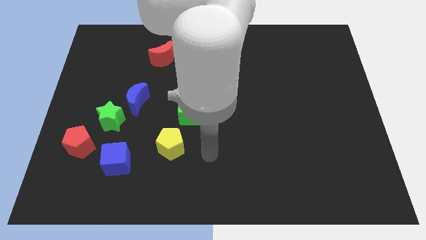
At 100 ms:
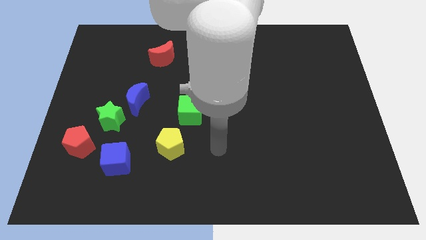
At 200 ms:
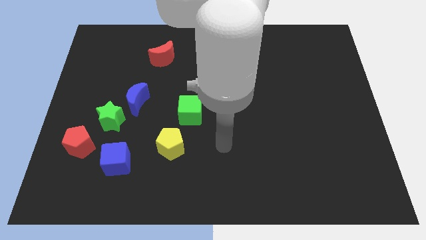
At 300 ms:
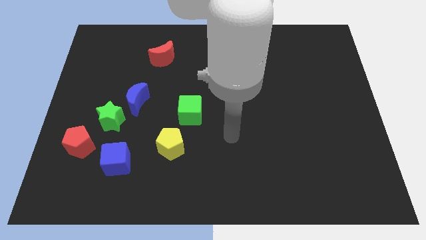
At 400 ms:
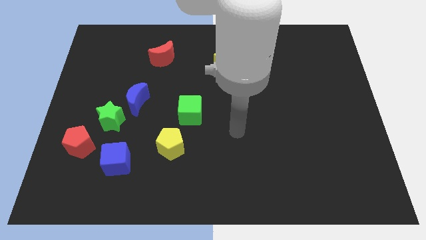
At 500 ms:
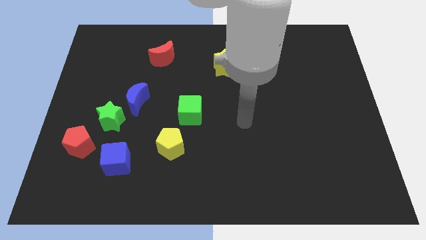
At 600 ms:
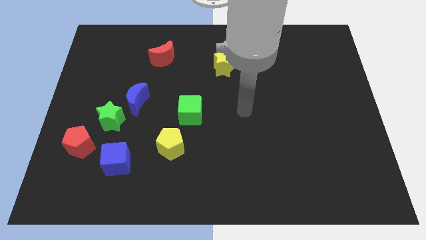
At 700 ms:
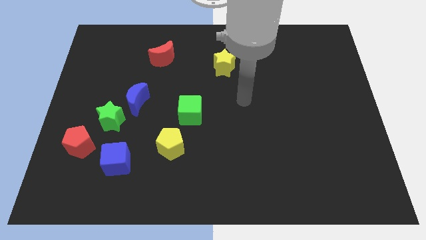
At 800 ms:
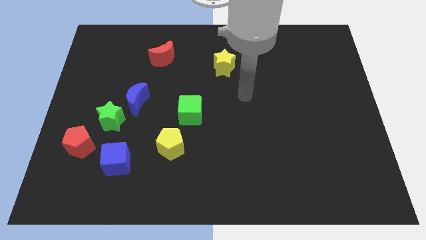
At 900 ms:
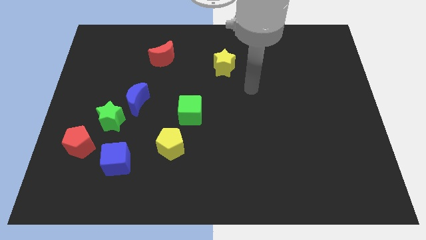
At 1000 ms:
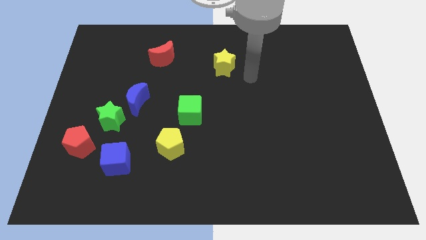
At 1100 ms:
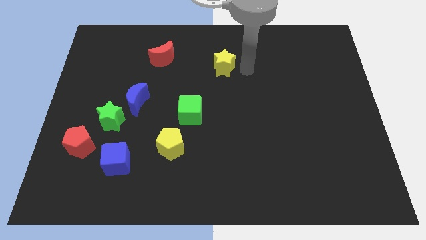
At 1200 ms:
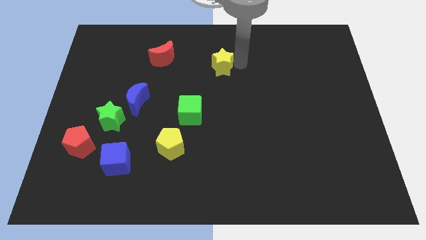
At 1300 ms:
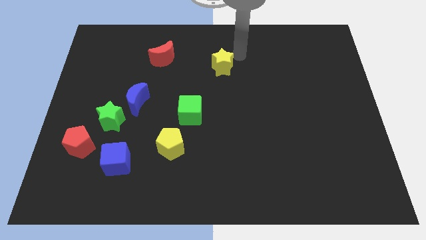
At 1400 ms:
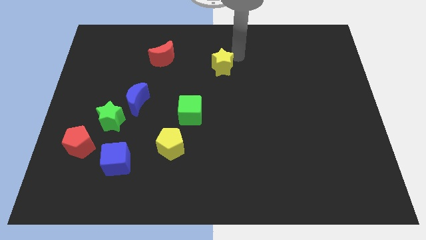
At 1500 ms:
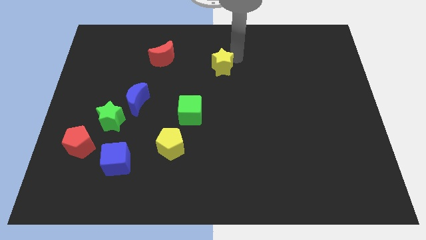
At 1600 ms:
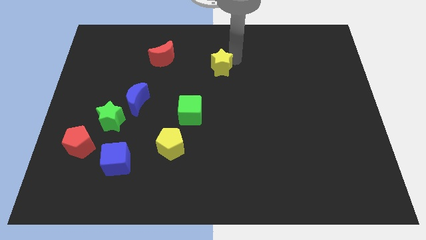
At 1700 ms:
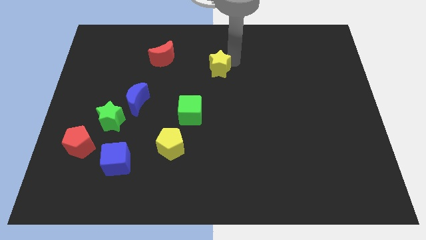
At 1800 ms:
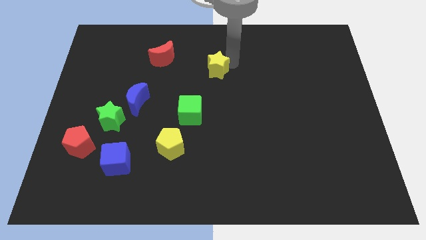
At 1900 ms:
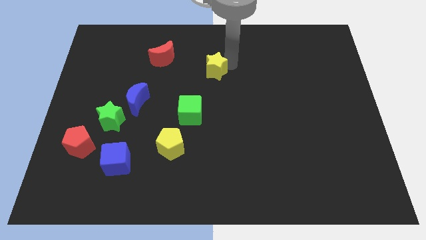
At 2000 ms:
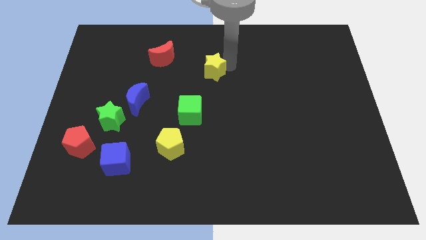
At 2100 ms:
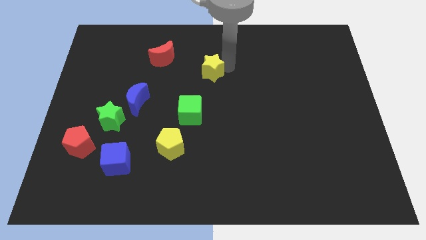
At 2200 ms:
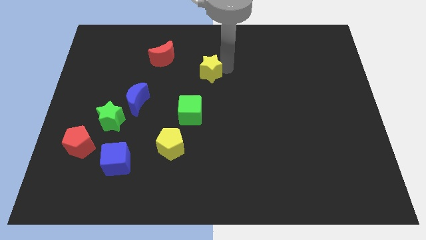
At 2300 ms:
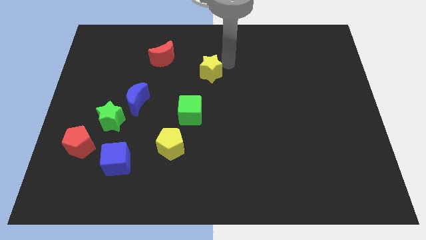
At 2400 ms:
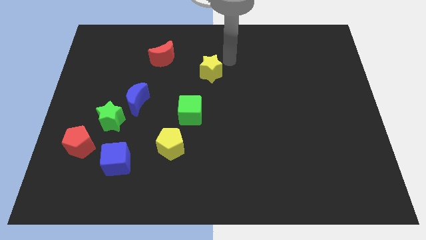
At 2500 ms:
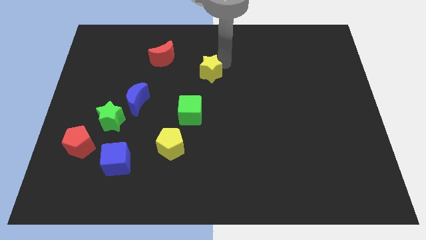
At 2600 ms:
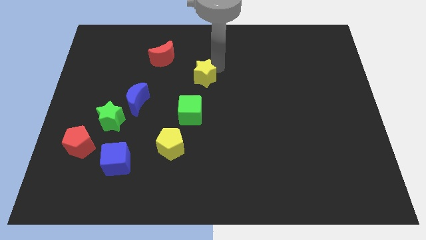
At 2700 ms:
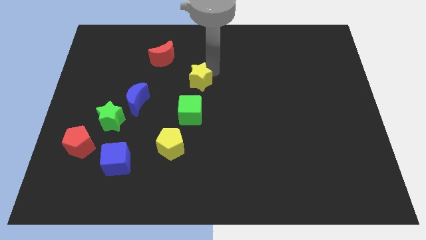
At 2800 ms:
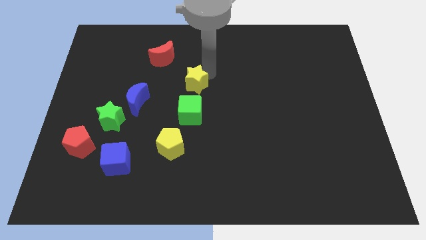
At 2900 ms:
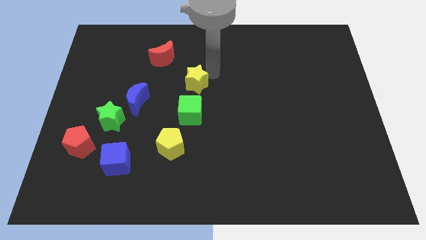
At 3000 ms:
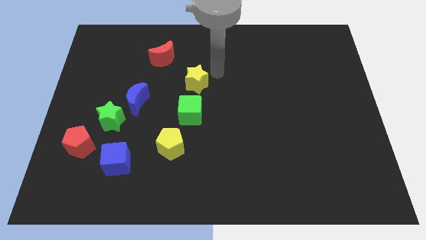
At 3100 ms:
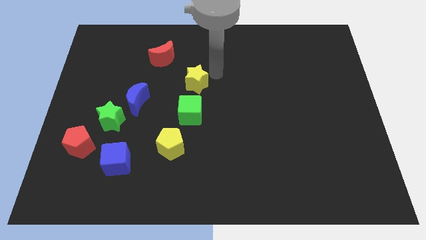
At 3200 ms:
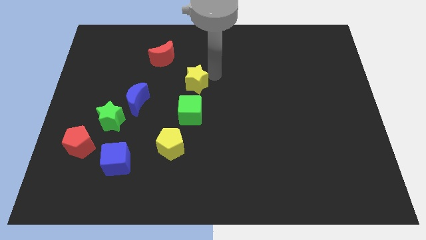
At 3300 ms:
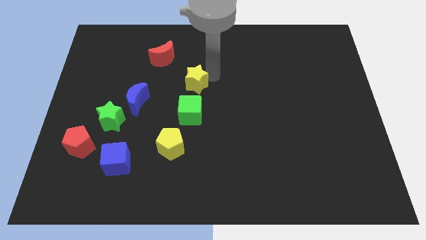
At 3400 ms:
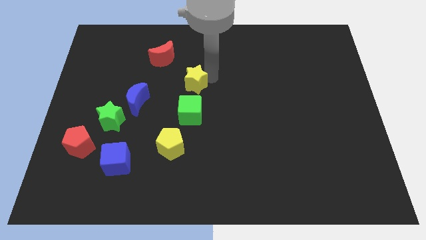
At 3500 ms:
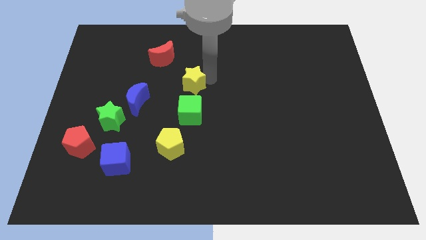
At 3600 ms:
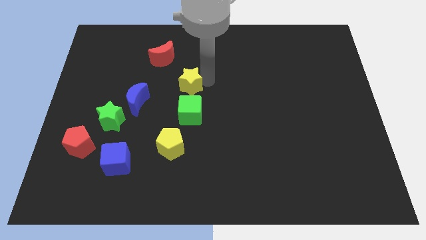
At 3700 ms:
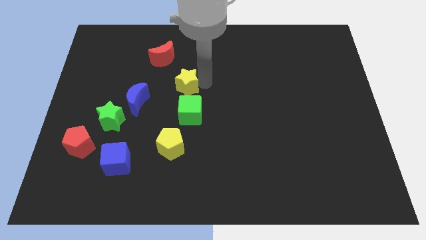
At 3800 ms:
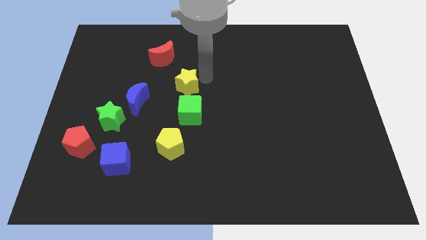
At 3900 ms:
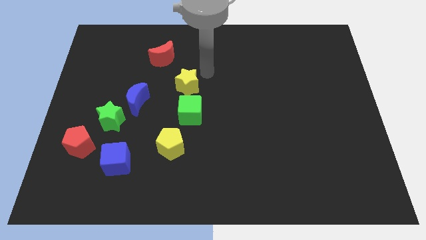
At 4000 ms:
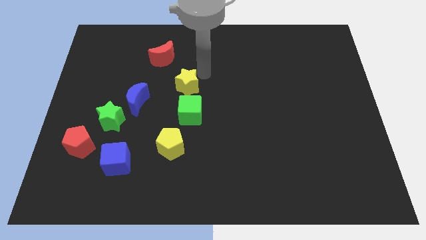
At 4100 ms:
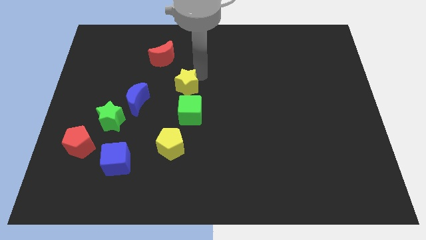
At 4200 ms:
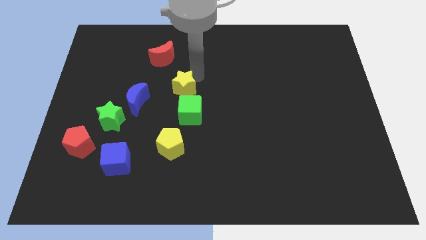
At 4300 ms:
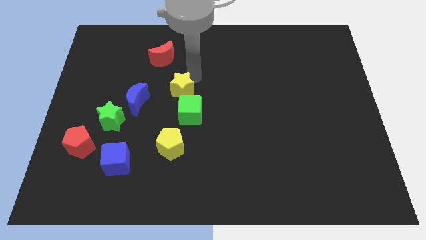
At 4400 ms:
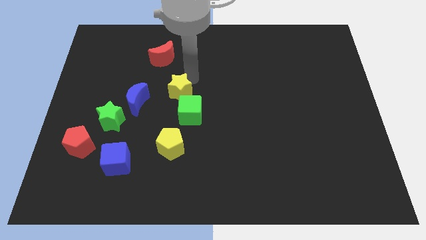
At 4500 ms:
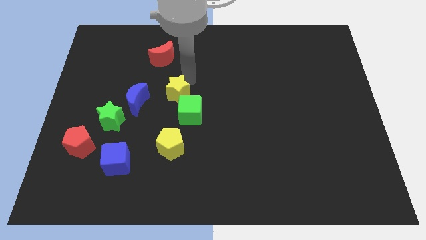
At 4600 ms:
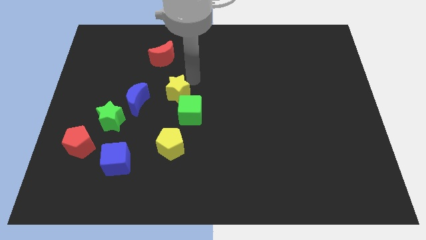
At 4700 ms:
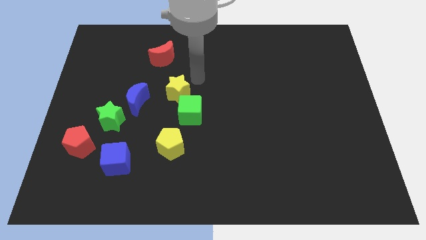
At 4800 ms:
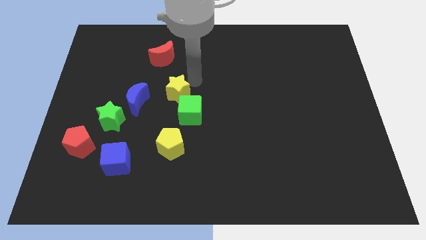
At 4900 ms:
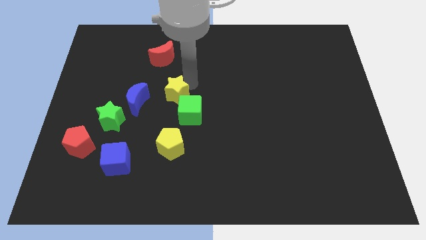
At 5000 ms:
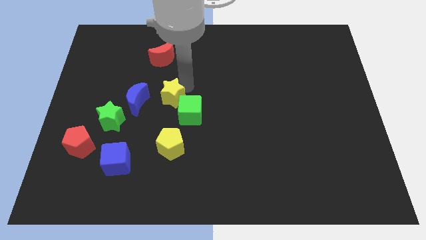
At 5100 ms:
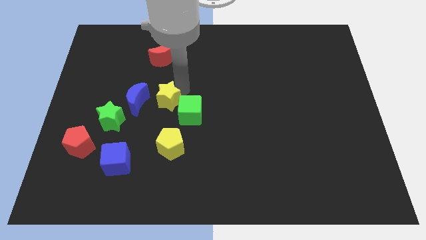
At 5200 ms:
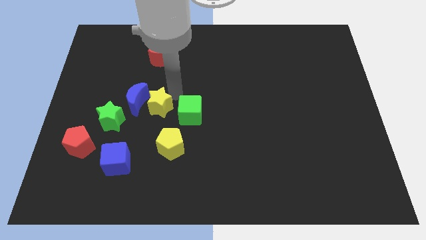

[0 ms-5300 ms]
move the yellow star down and to the left

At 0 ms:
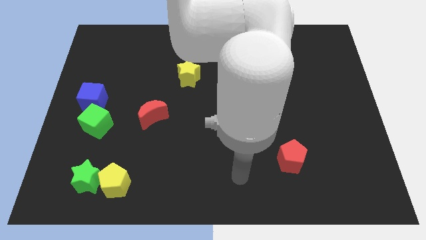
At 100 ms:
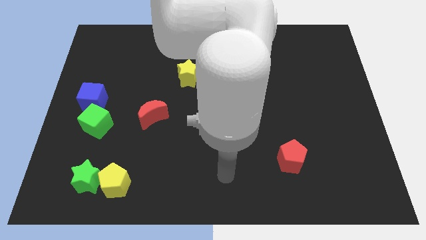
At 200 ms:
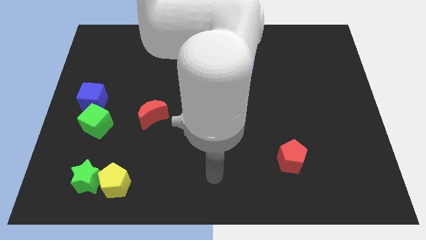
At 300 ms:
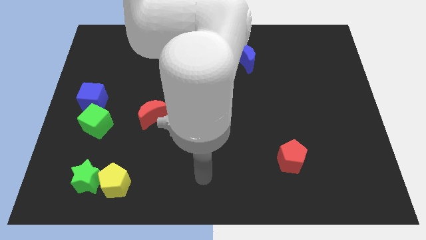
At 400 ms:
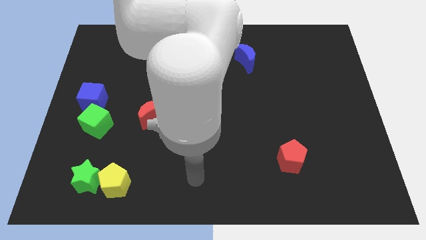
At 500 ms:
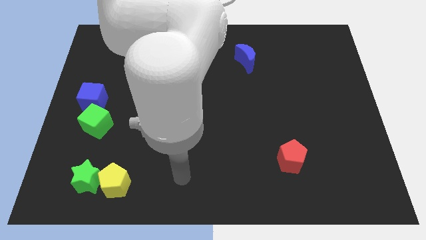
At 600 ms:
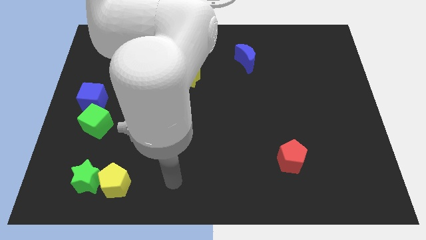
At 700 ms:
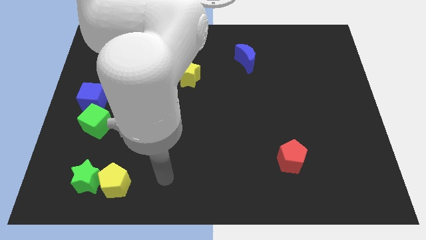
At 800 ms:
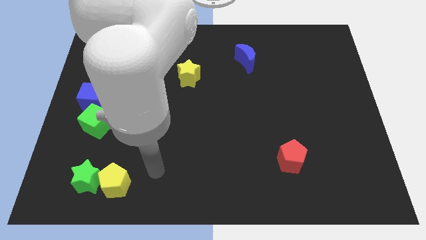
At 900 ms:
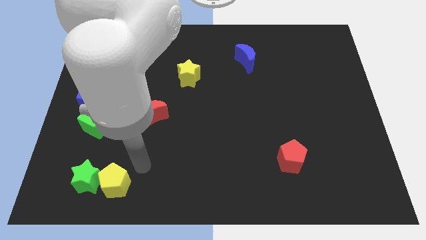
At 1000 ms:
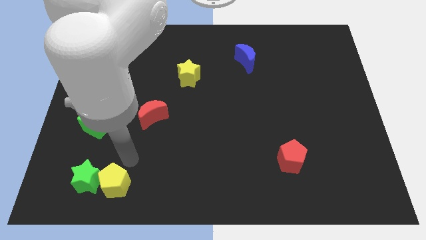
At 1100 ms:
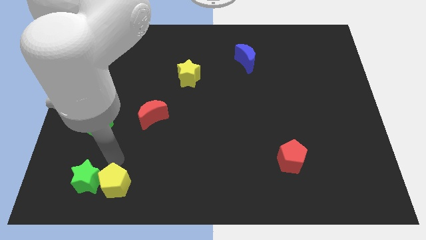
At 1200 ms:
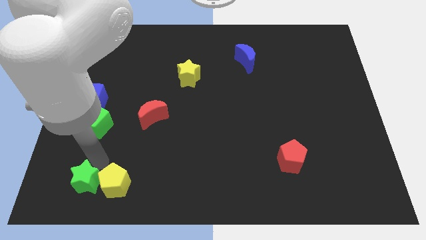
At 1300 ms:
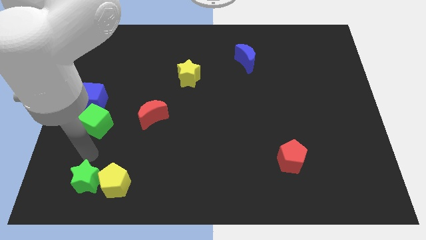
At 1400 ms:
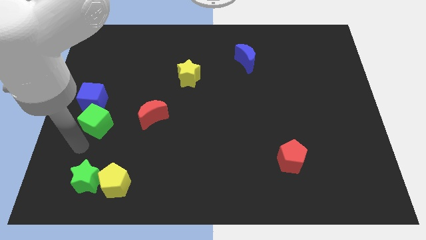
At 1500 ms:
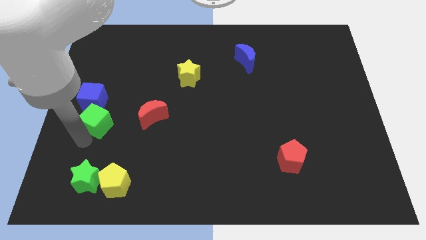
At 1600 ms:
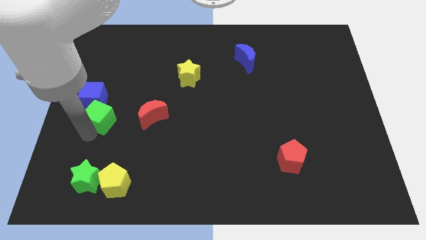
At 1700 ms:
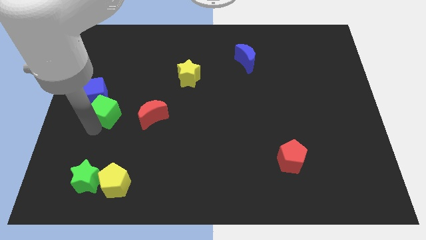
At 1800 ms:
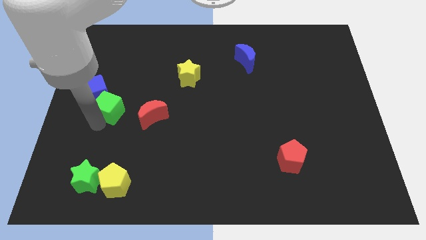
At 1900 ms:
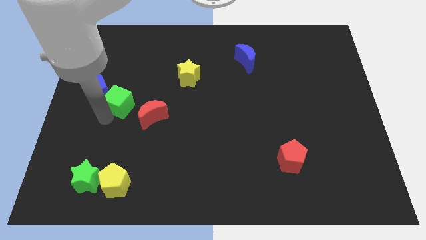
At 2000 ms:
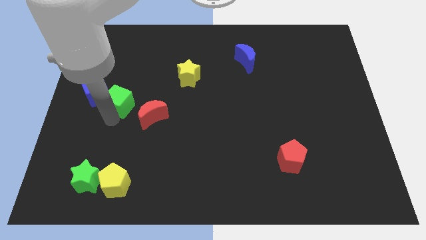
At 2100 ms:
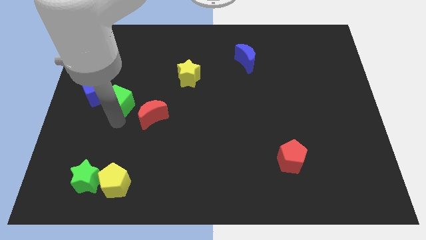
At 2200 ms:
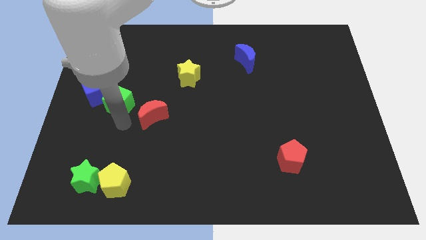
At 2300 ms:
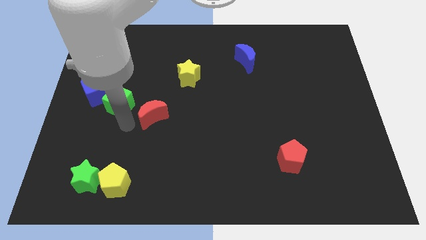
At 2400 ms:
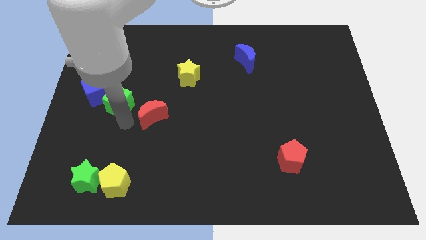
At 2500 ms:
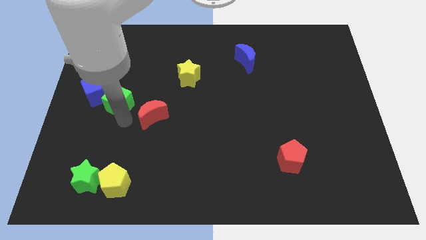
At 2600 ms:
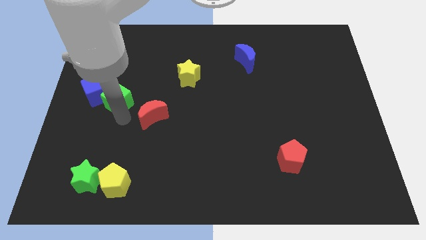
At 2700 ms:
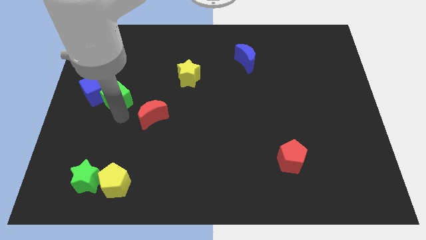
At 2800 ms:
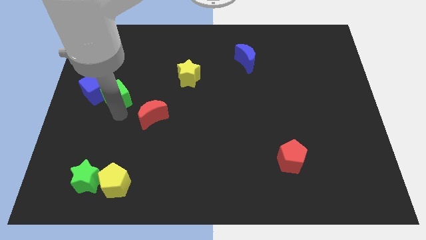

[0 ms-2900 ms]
push the green cube upwards a bit

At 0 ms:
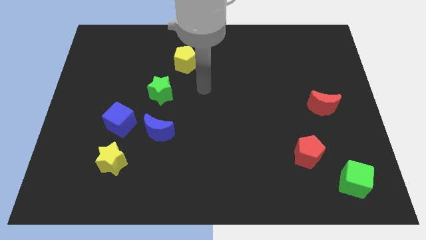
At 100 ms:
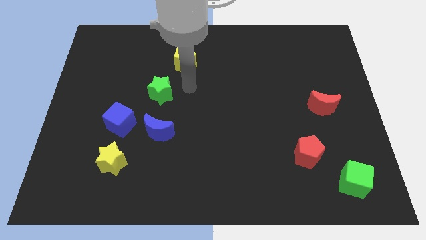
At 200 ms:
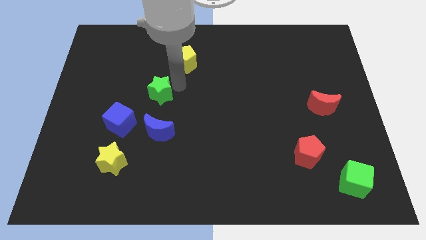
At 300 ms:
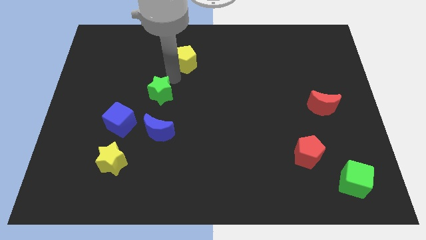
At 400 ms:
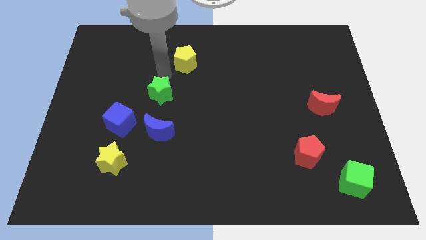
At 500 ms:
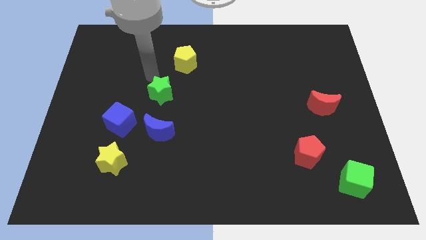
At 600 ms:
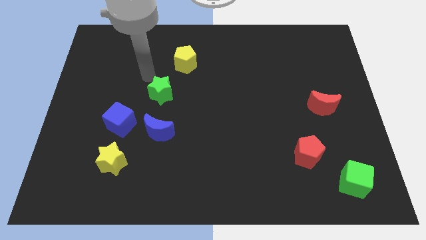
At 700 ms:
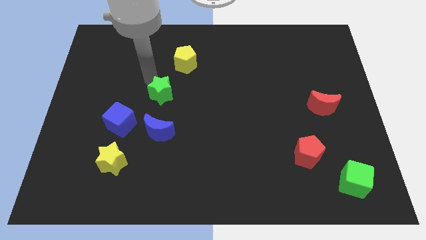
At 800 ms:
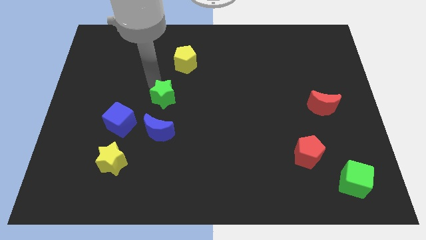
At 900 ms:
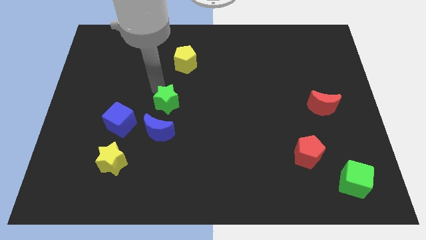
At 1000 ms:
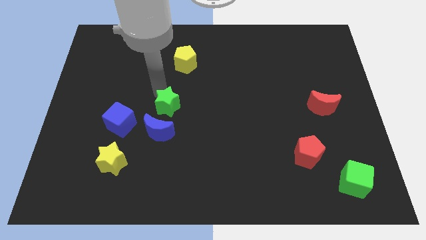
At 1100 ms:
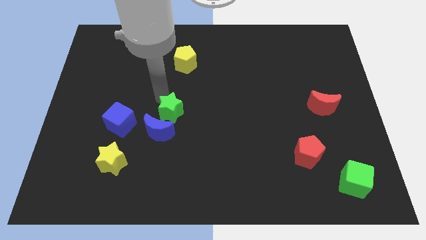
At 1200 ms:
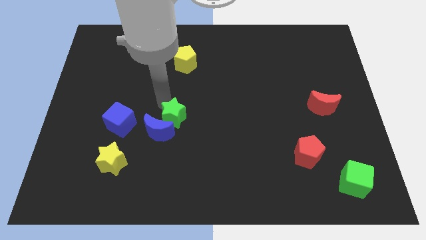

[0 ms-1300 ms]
slightly push the green star downwards
